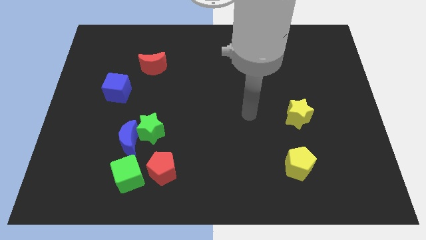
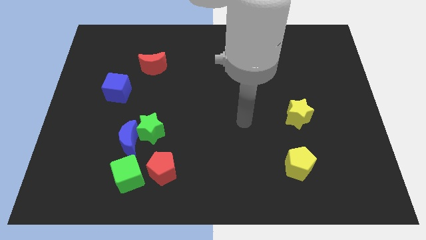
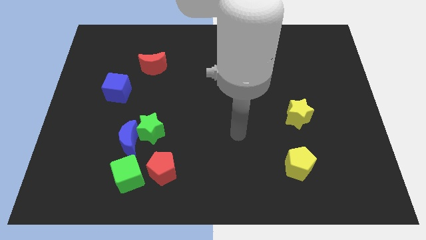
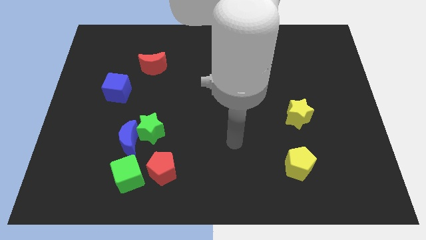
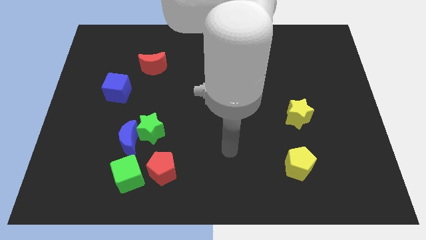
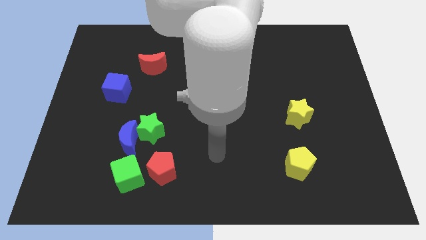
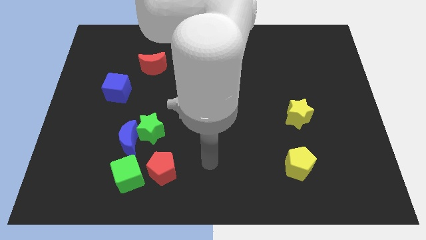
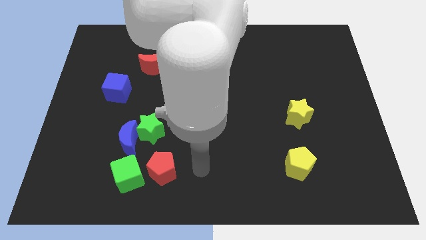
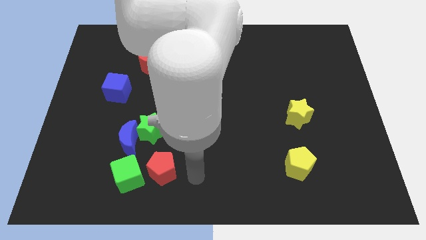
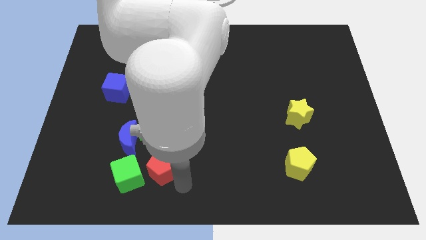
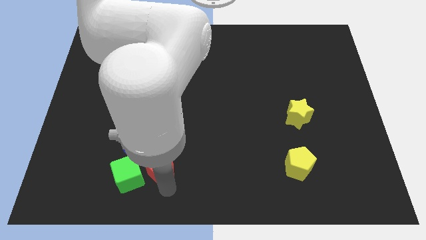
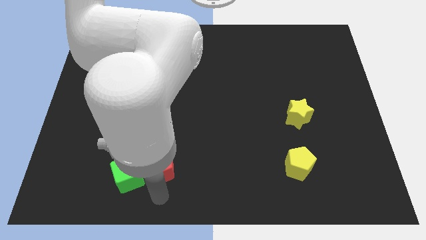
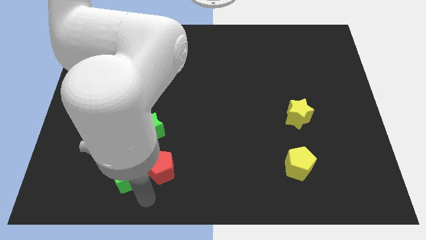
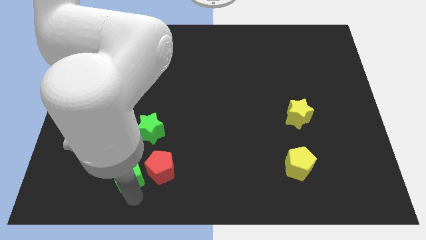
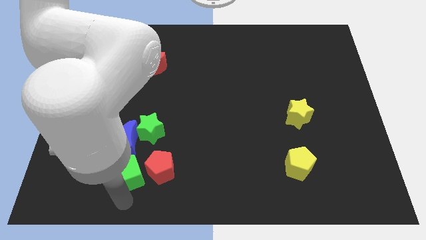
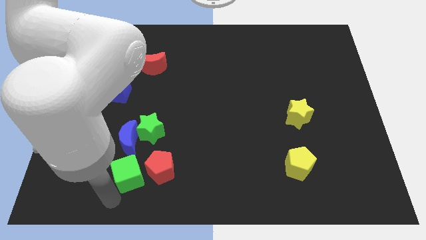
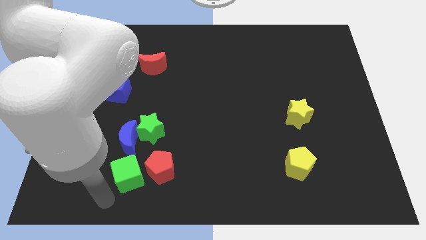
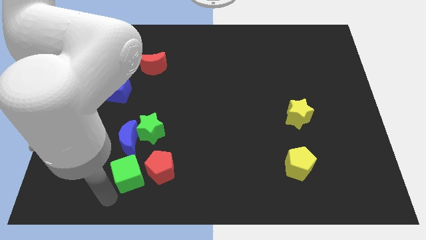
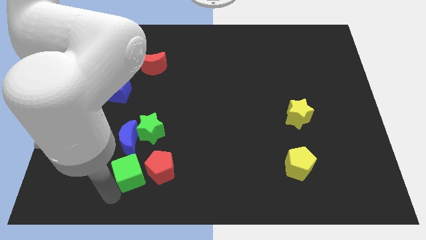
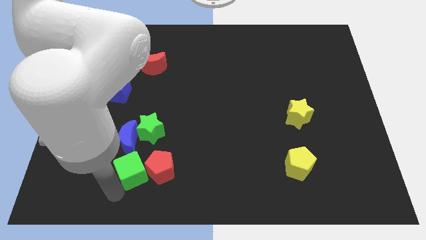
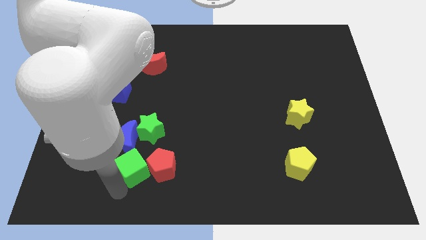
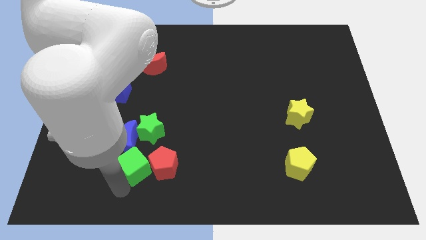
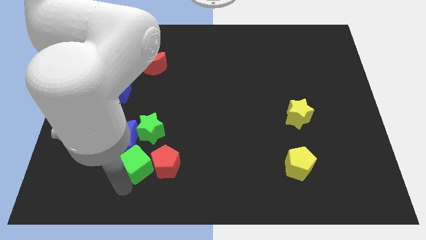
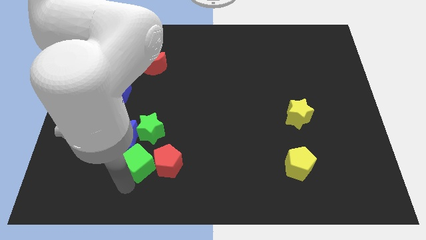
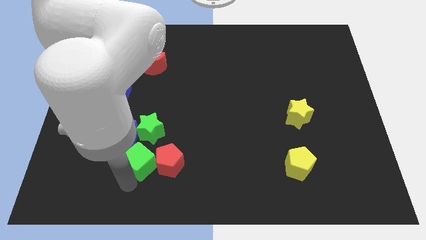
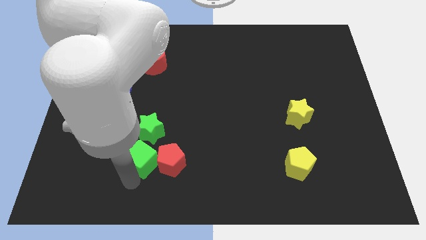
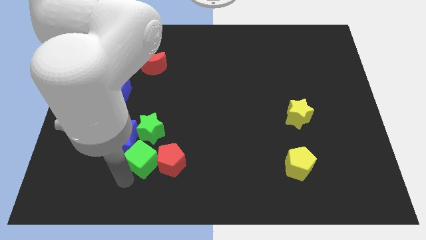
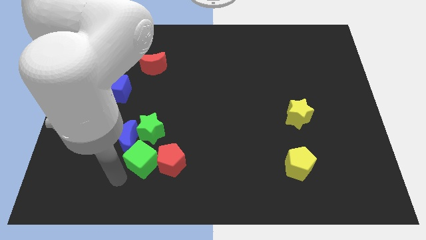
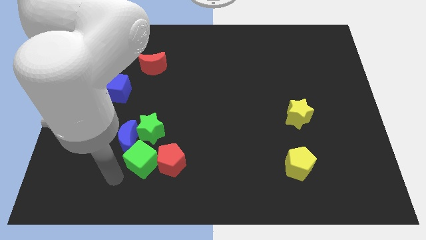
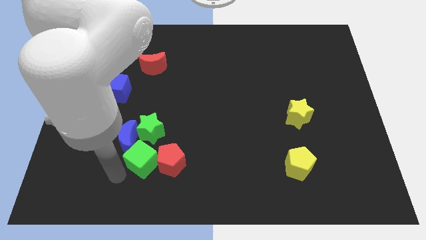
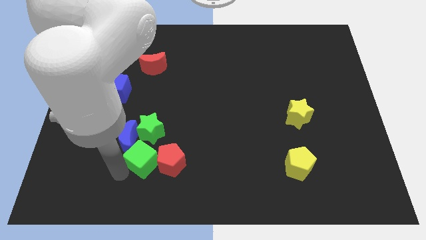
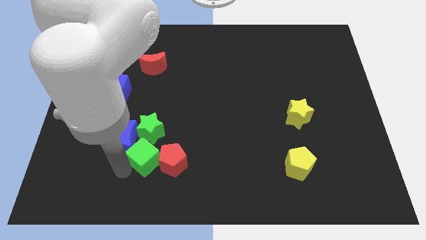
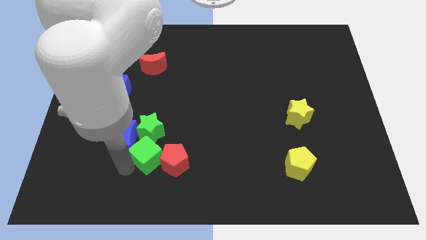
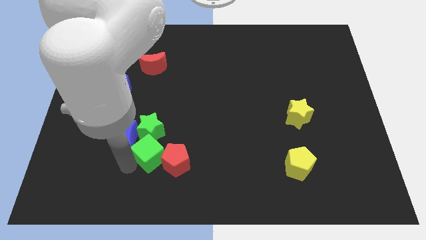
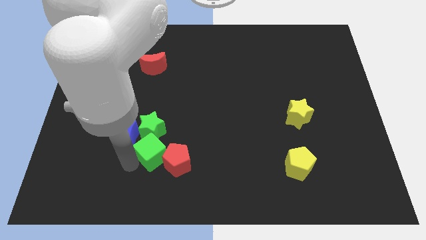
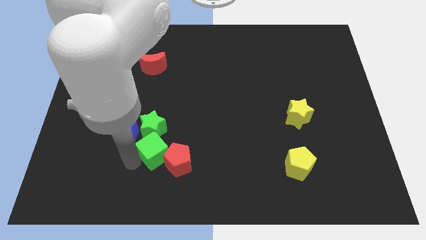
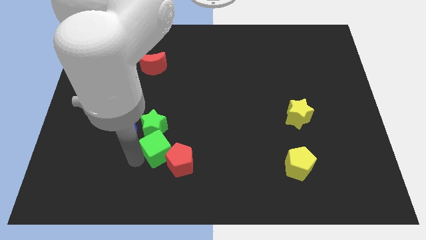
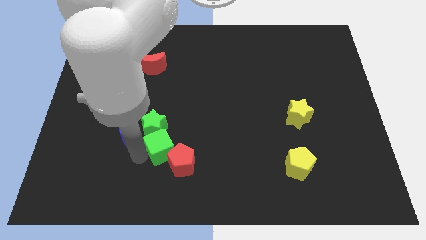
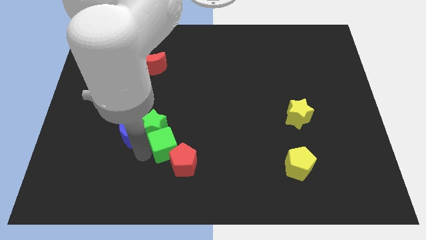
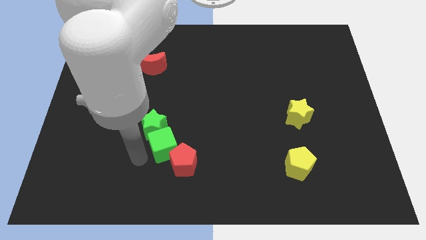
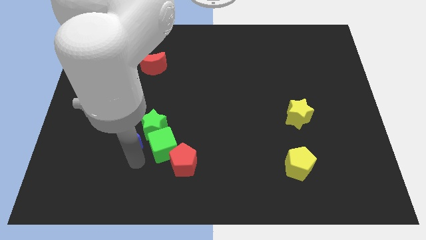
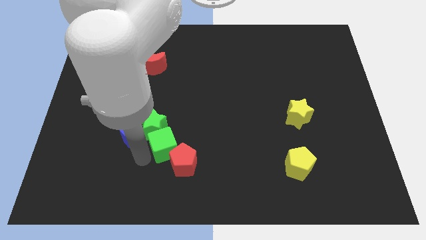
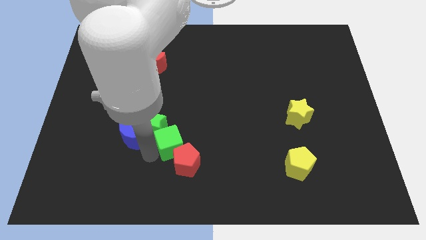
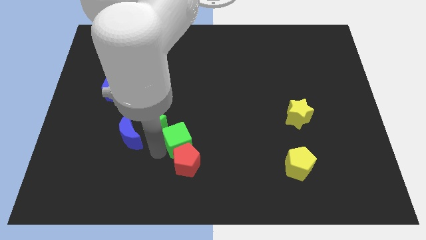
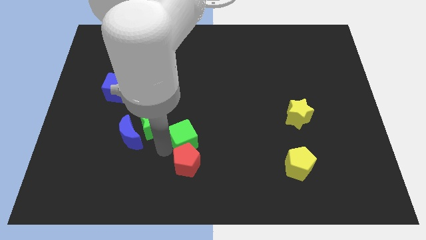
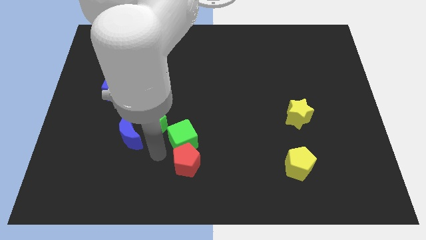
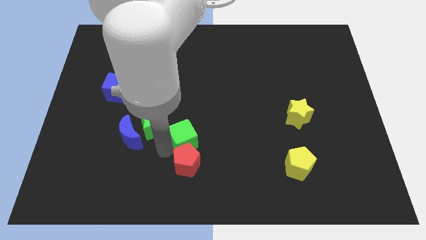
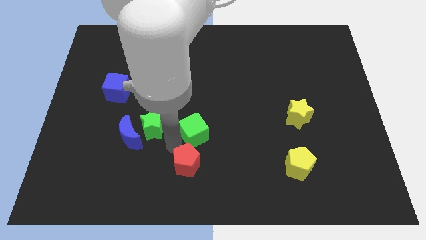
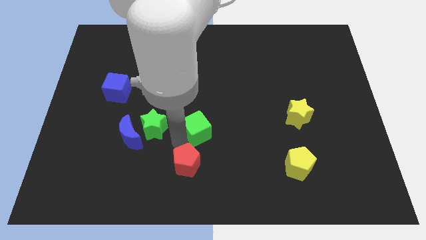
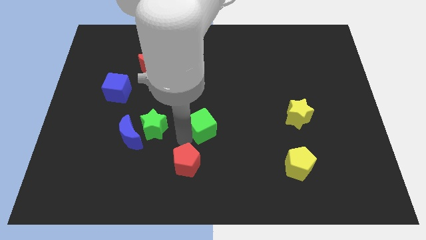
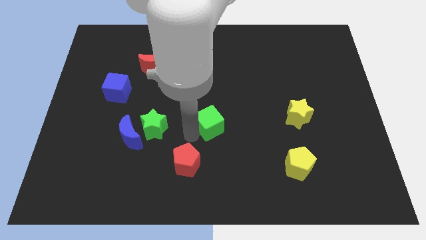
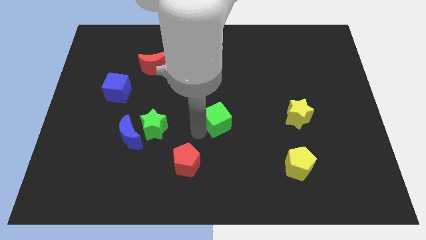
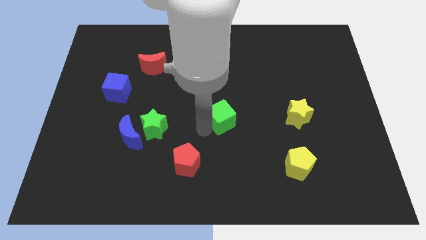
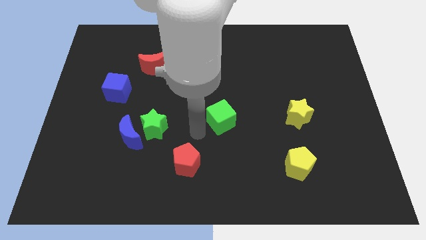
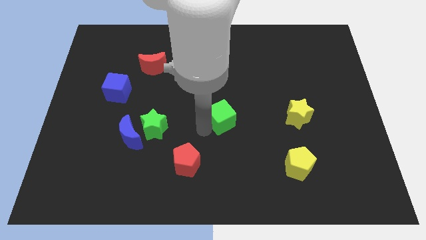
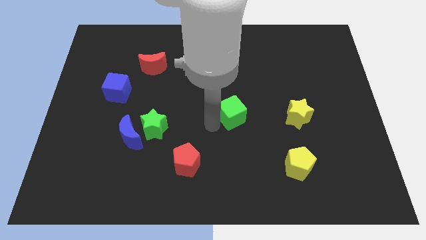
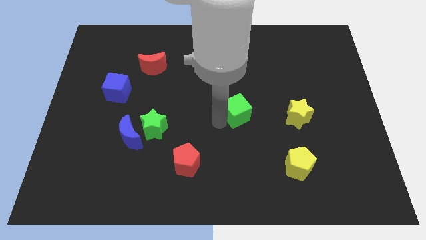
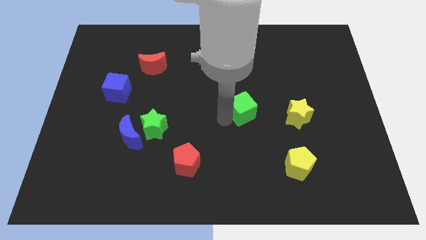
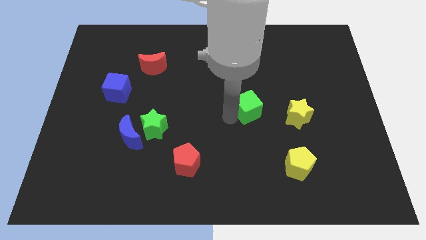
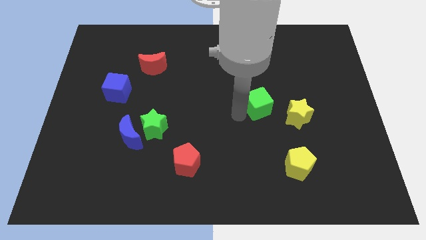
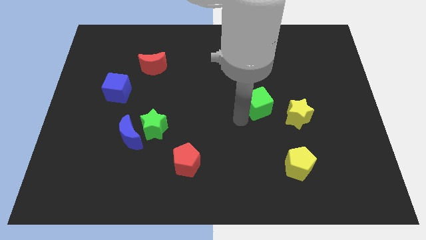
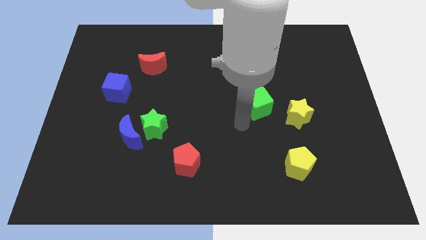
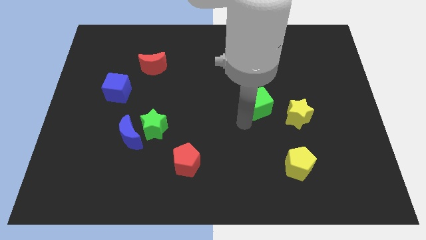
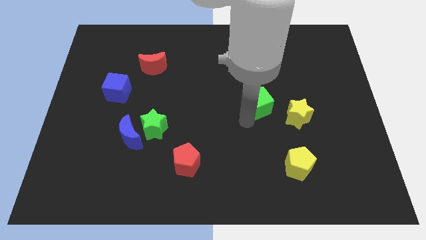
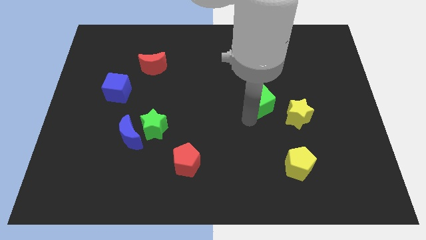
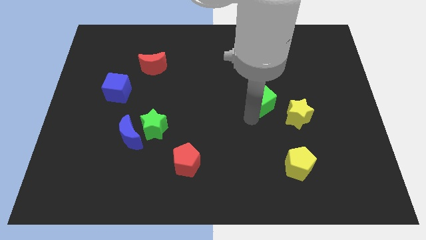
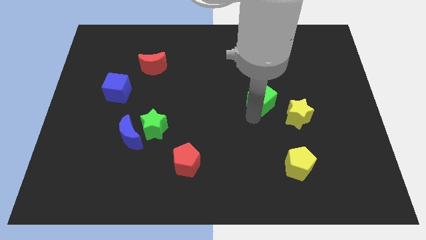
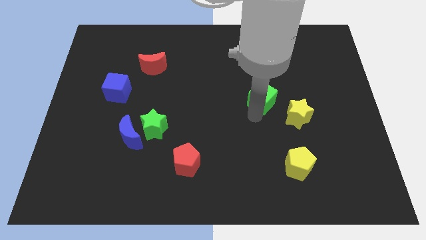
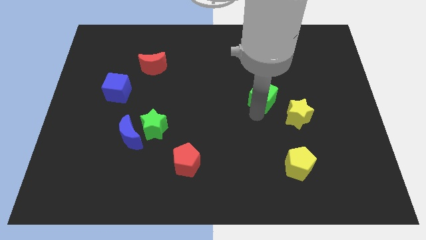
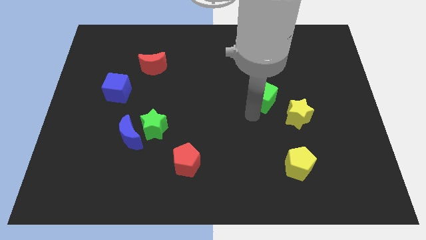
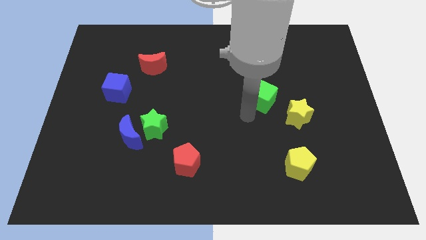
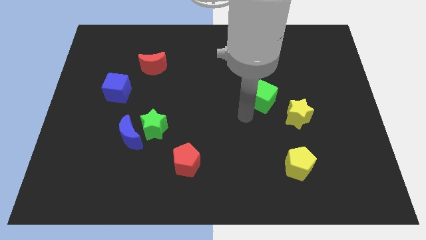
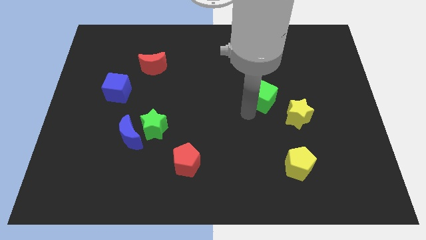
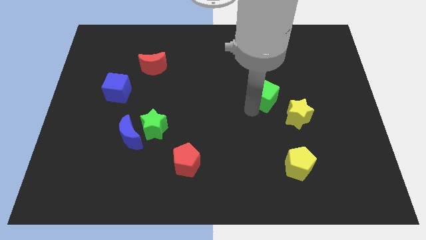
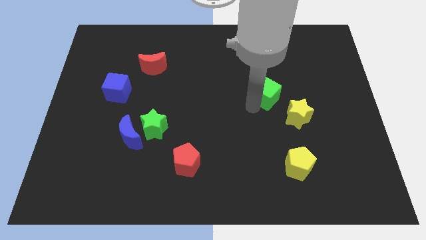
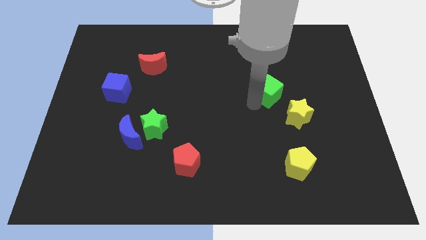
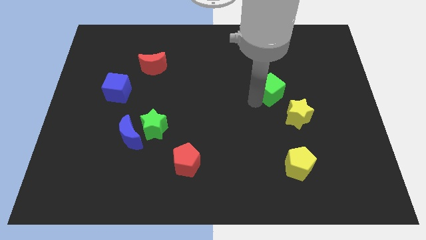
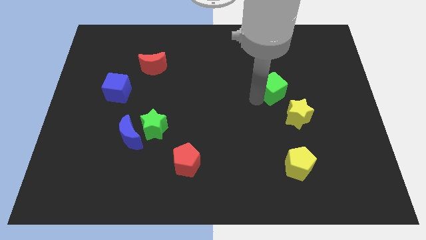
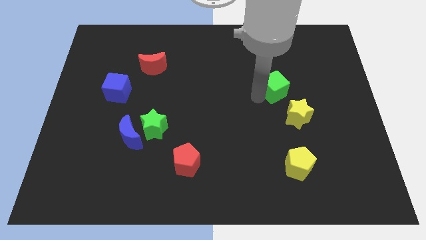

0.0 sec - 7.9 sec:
move the green cube to the top of the yellow star
